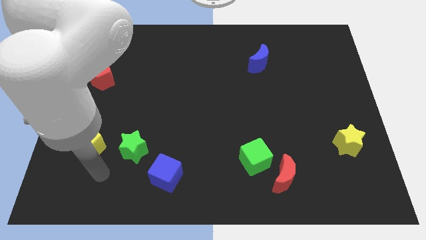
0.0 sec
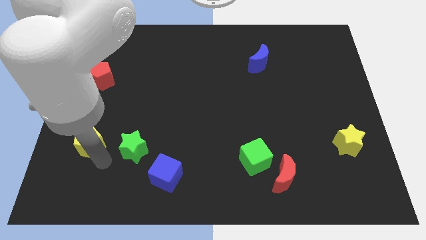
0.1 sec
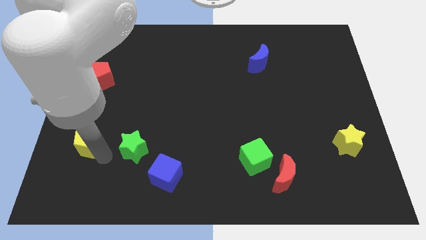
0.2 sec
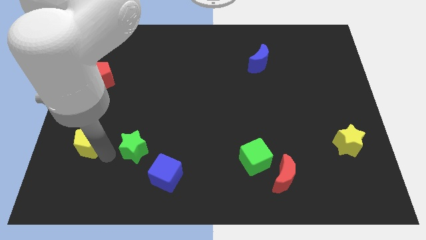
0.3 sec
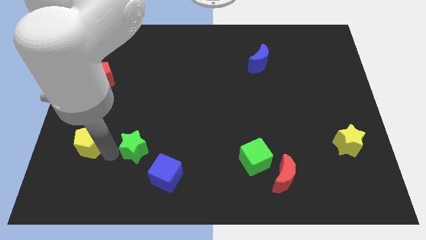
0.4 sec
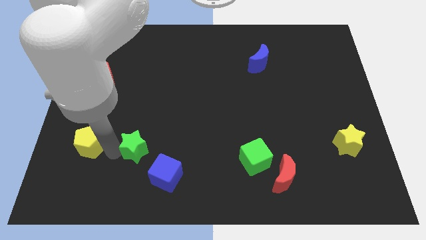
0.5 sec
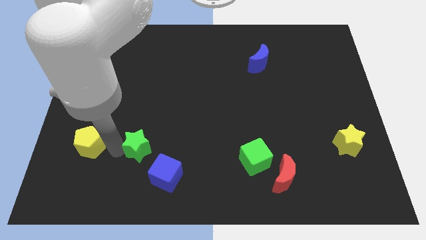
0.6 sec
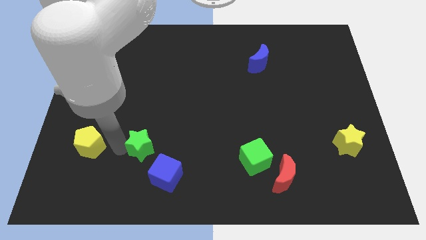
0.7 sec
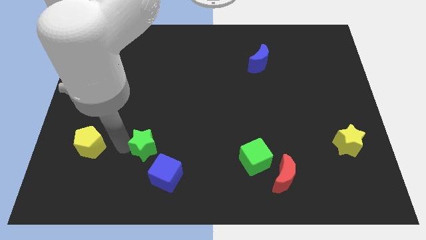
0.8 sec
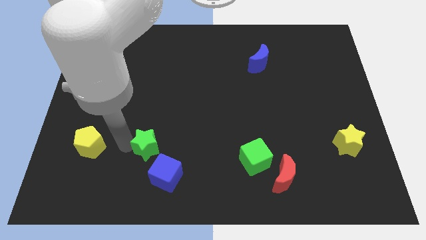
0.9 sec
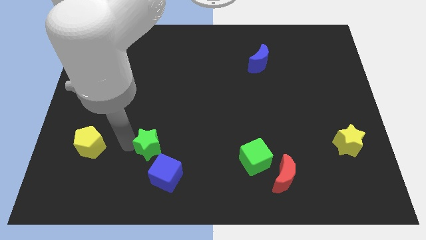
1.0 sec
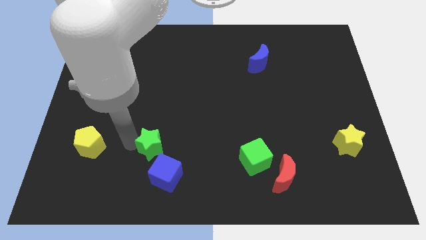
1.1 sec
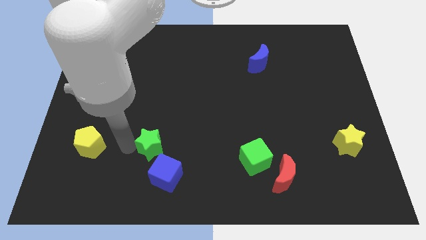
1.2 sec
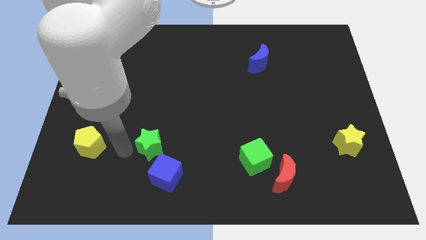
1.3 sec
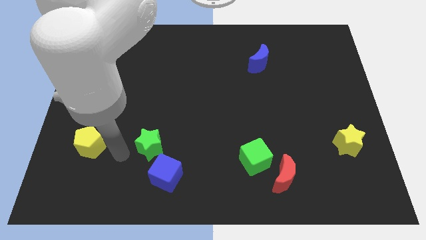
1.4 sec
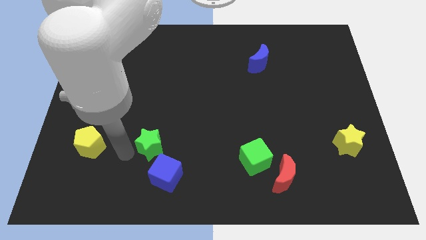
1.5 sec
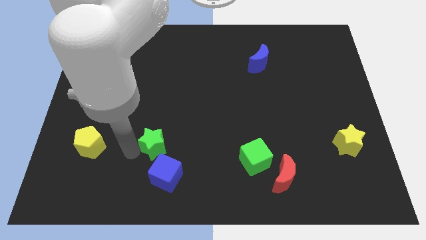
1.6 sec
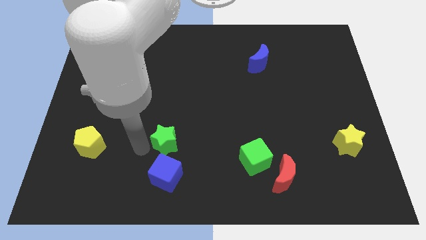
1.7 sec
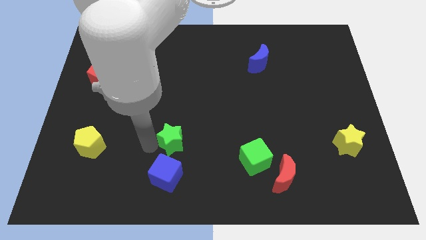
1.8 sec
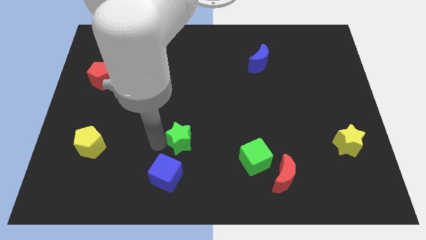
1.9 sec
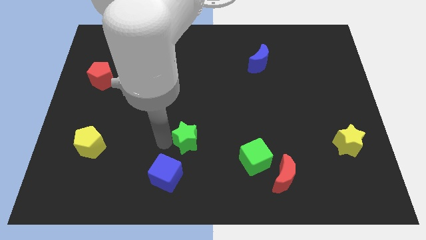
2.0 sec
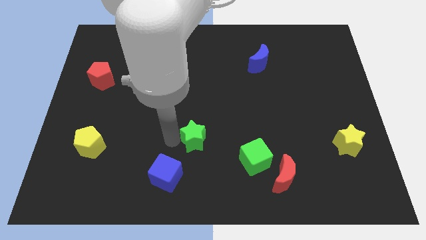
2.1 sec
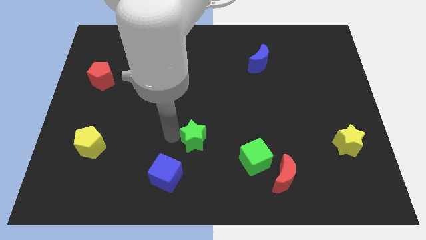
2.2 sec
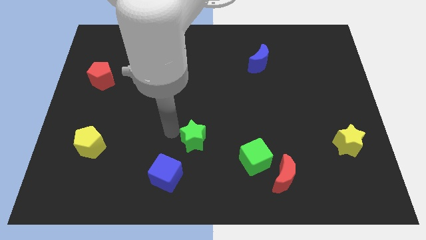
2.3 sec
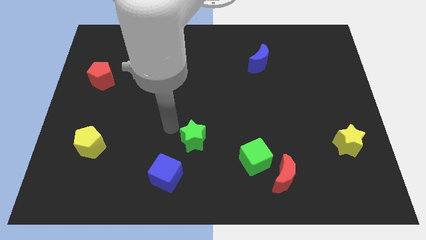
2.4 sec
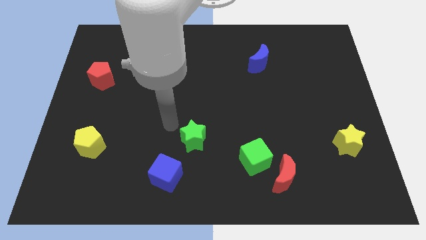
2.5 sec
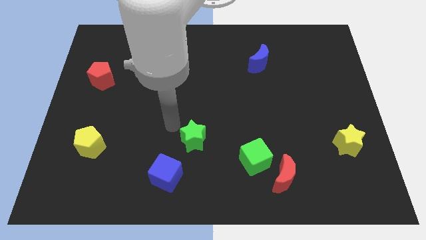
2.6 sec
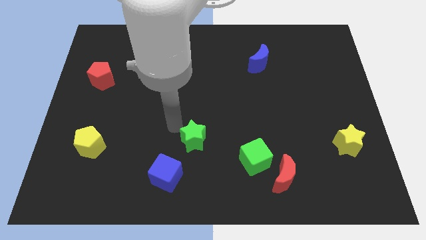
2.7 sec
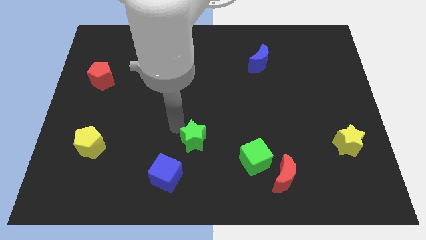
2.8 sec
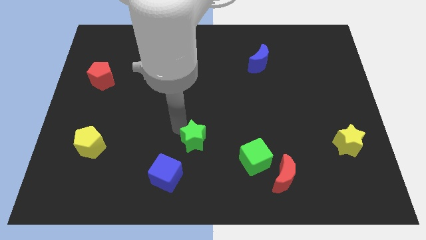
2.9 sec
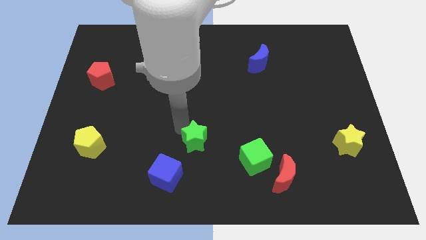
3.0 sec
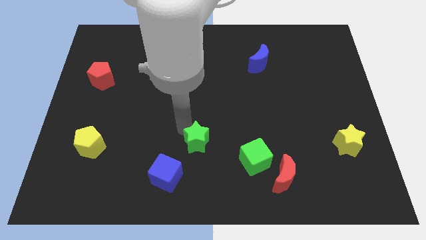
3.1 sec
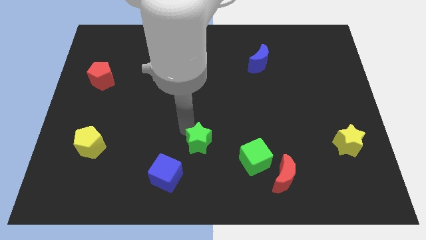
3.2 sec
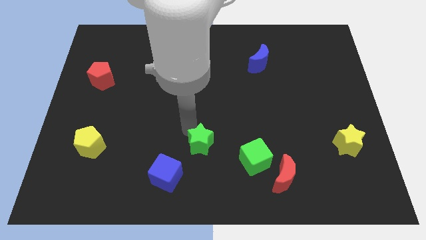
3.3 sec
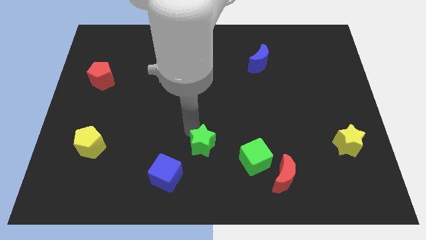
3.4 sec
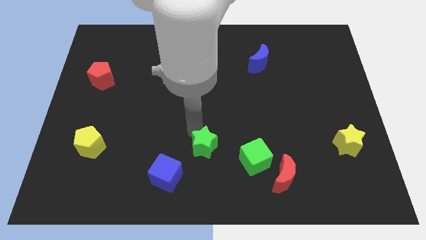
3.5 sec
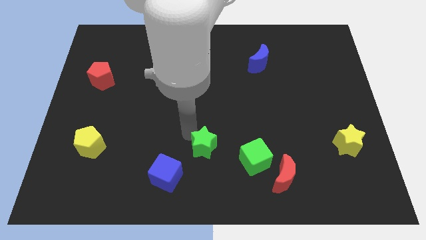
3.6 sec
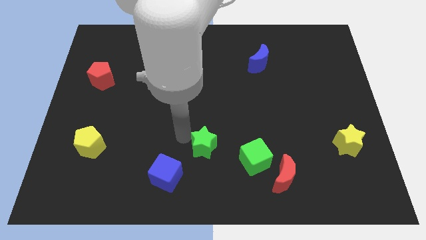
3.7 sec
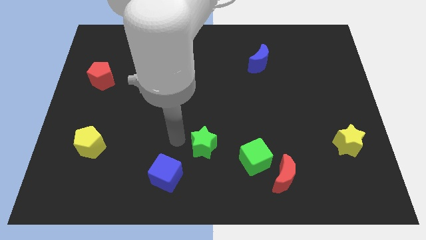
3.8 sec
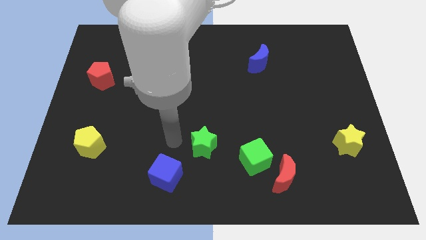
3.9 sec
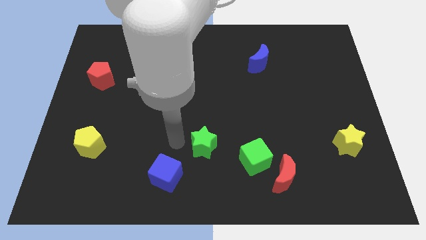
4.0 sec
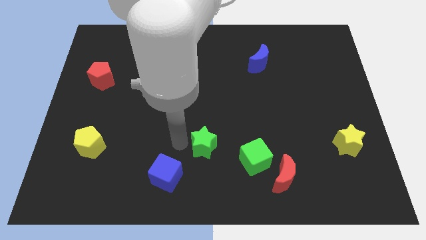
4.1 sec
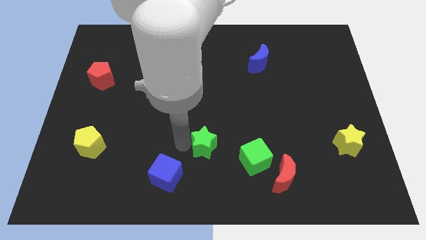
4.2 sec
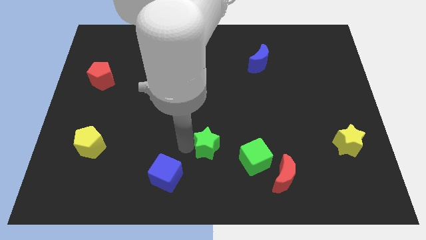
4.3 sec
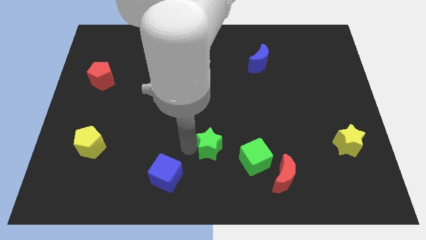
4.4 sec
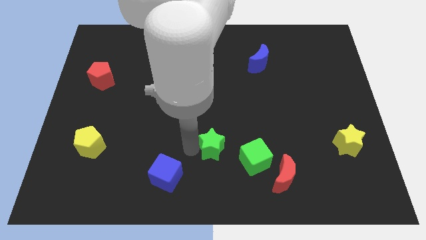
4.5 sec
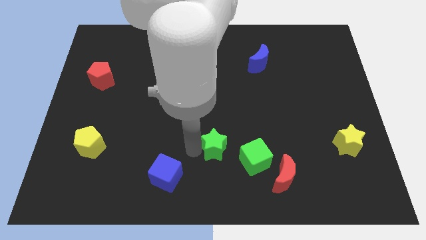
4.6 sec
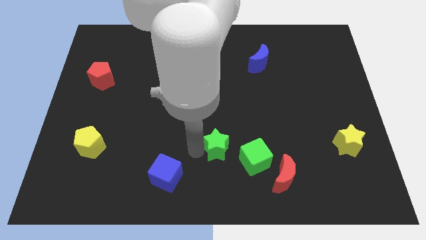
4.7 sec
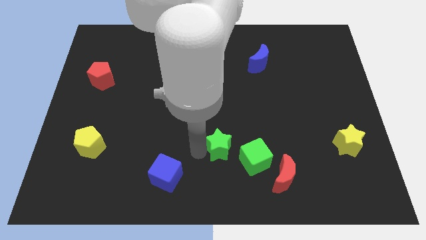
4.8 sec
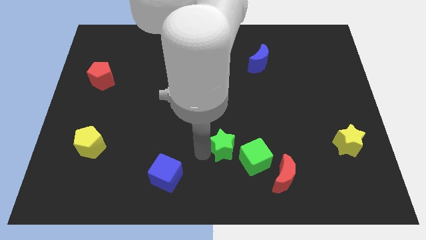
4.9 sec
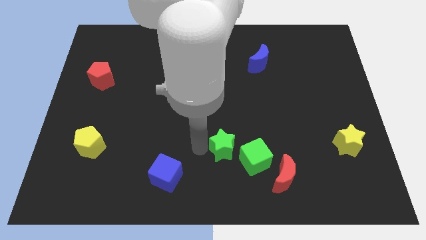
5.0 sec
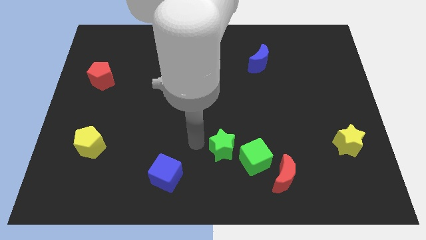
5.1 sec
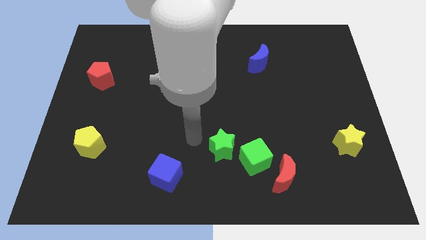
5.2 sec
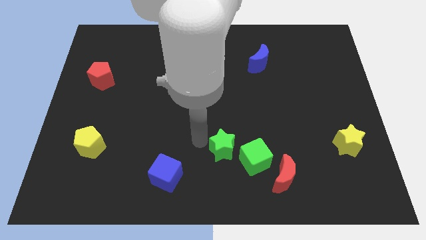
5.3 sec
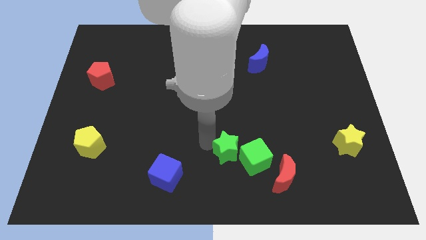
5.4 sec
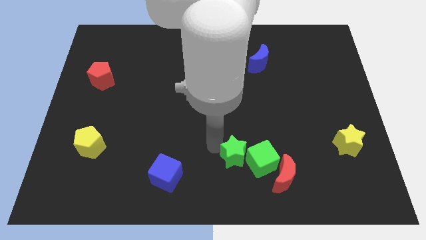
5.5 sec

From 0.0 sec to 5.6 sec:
move the green star close to the green cube

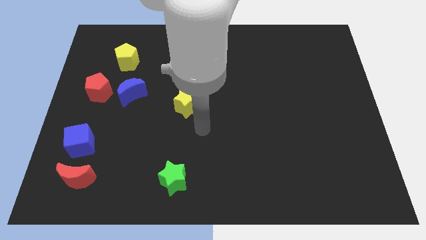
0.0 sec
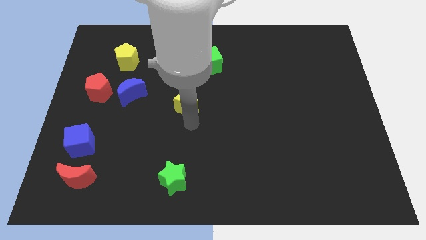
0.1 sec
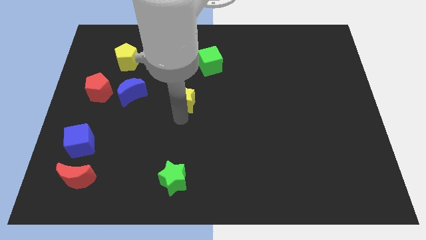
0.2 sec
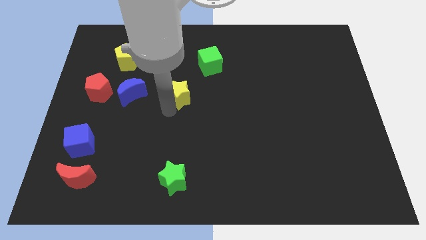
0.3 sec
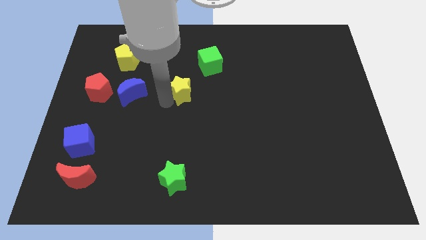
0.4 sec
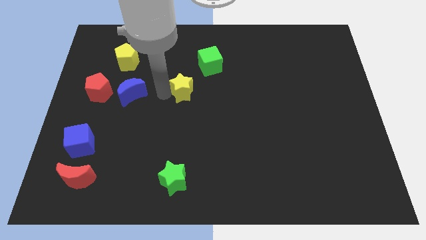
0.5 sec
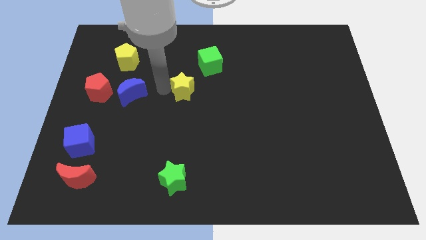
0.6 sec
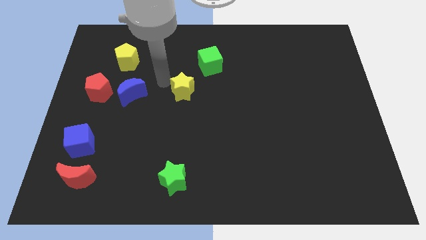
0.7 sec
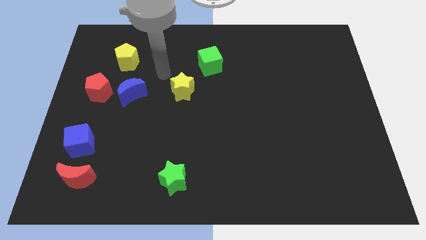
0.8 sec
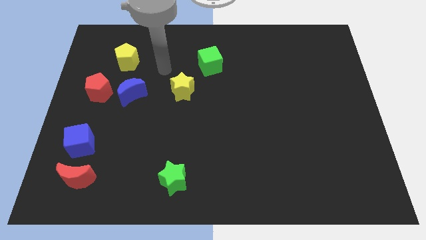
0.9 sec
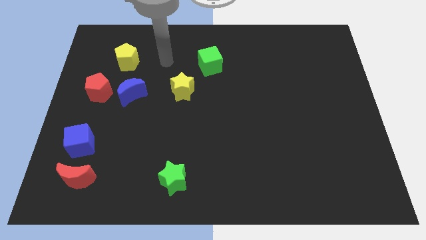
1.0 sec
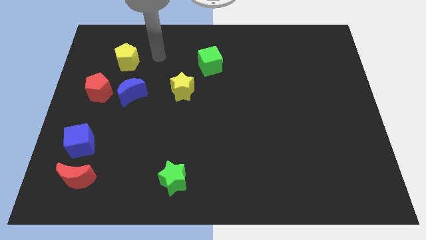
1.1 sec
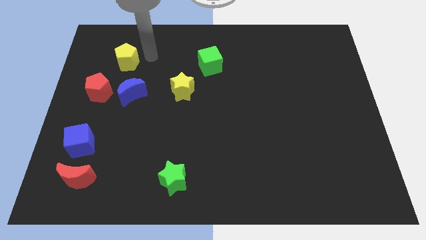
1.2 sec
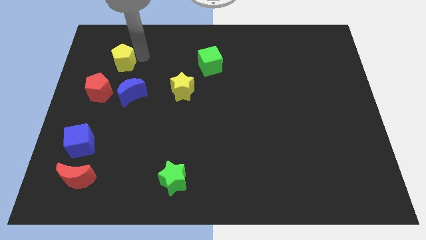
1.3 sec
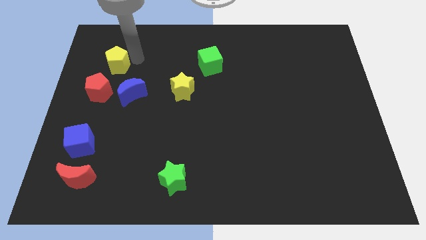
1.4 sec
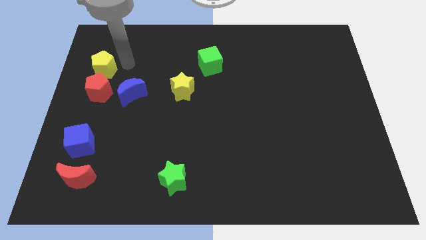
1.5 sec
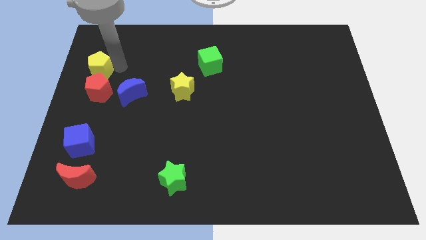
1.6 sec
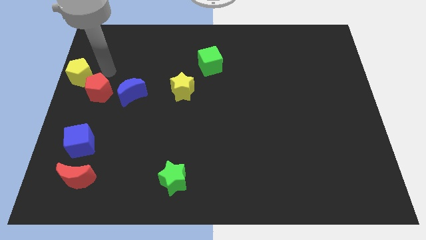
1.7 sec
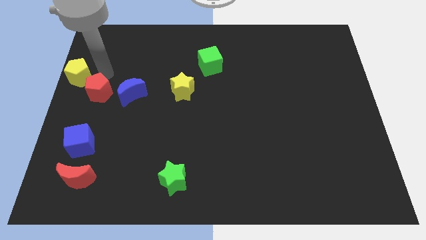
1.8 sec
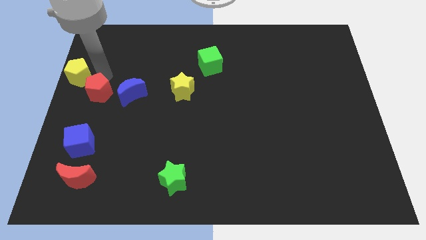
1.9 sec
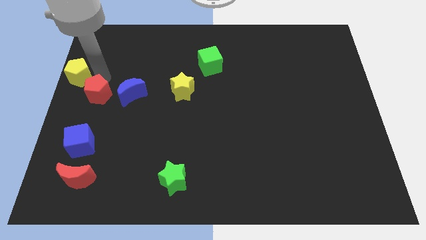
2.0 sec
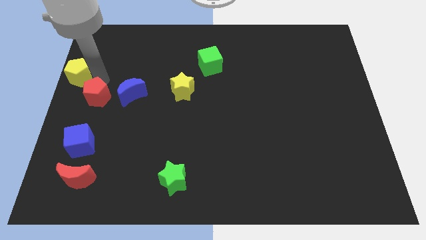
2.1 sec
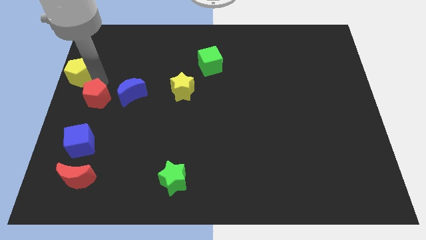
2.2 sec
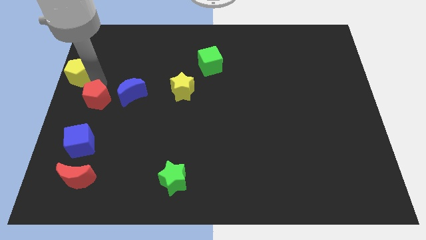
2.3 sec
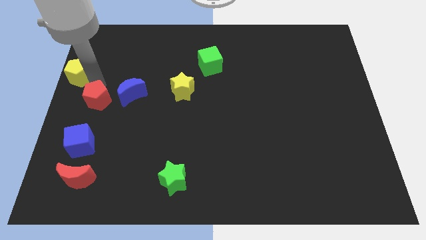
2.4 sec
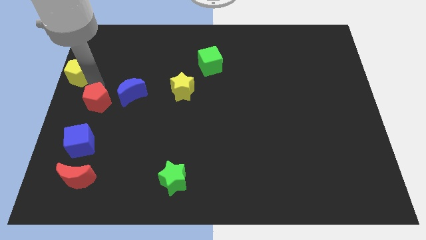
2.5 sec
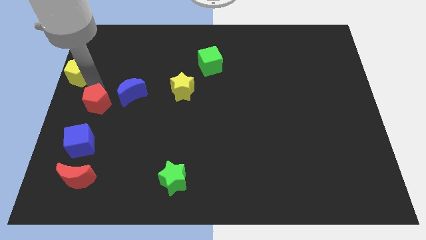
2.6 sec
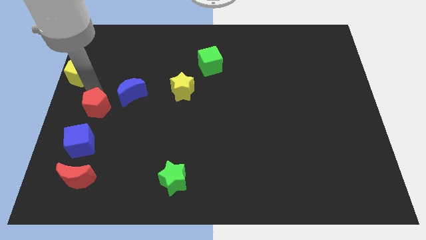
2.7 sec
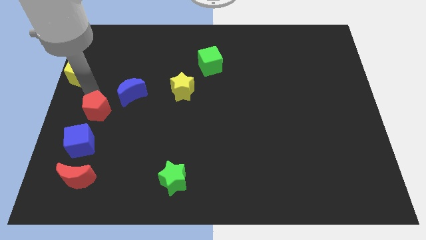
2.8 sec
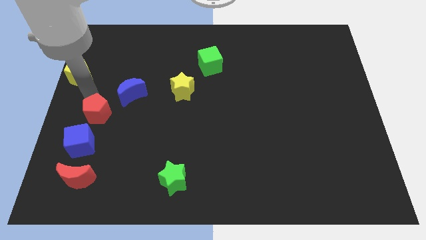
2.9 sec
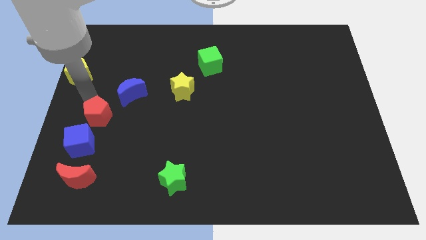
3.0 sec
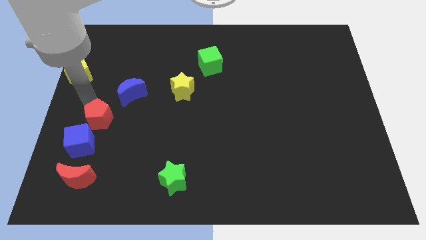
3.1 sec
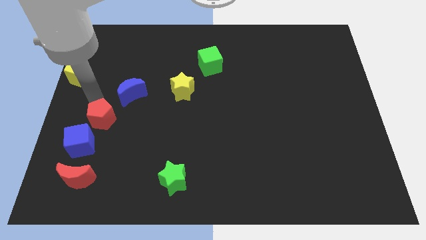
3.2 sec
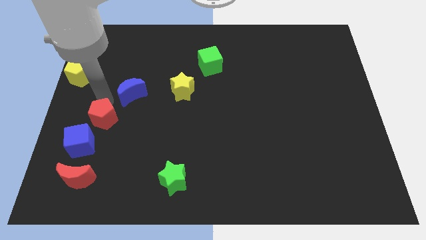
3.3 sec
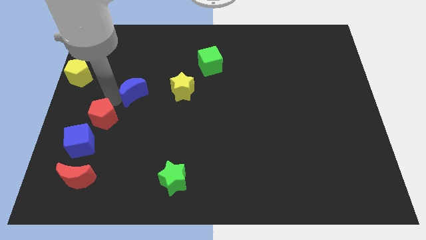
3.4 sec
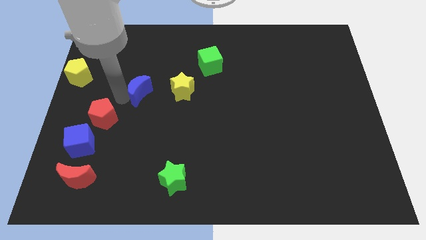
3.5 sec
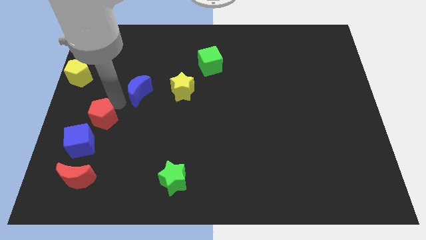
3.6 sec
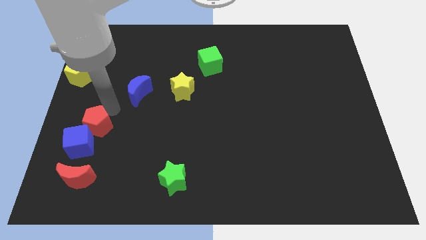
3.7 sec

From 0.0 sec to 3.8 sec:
slide the red pentagon to the blue cube
